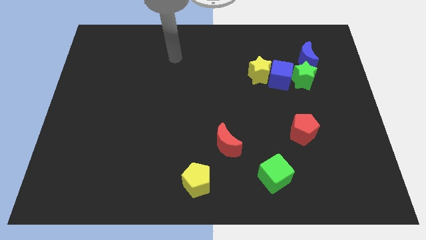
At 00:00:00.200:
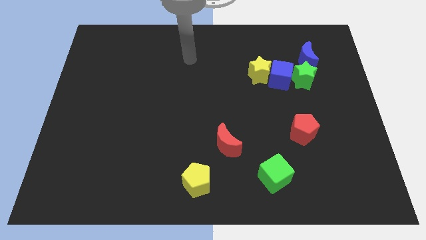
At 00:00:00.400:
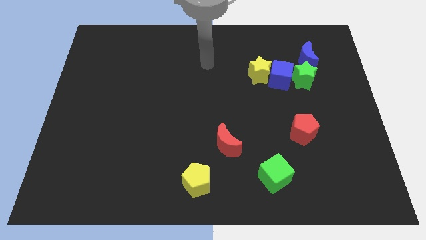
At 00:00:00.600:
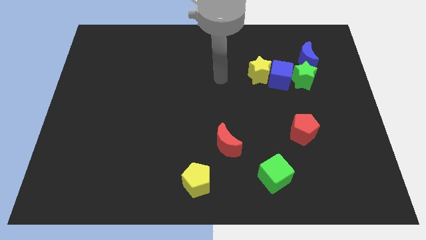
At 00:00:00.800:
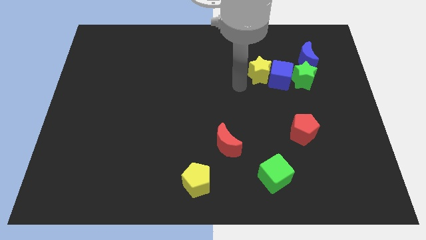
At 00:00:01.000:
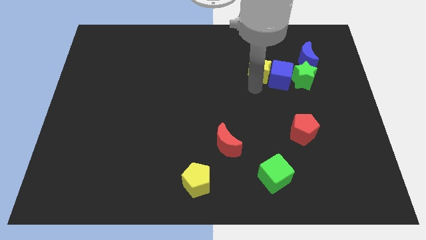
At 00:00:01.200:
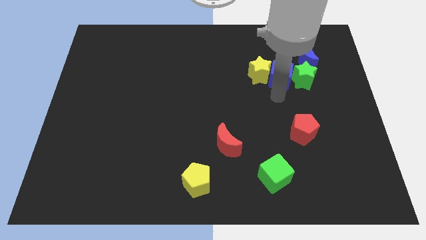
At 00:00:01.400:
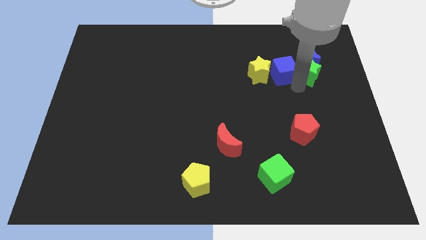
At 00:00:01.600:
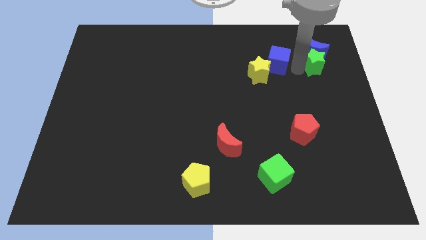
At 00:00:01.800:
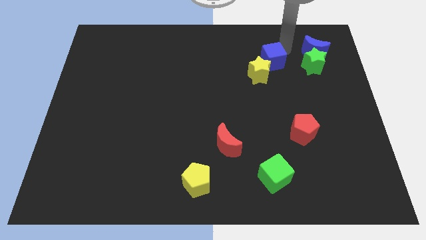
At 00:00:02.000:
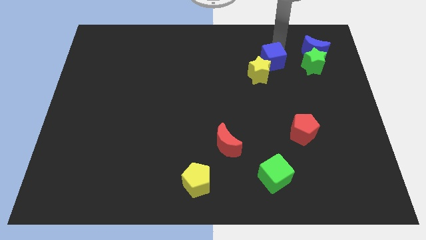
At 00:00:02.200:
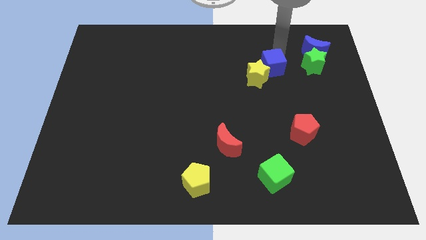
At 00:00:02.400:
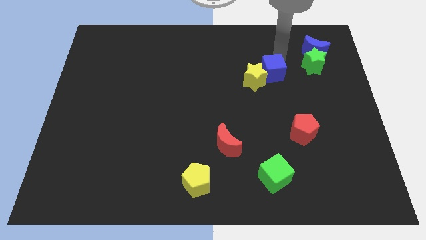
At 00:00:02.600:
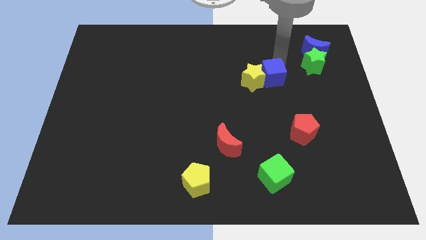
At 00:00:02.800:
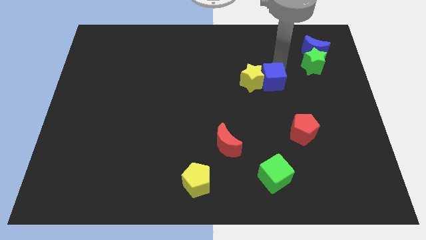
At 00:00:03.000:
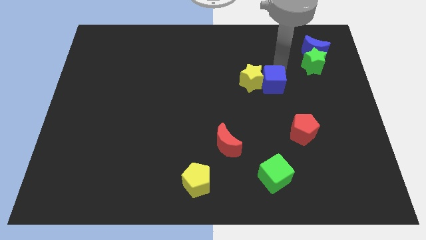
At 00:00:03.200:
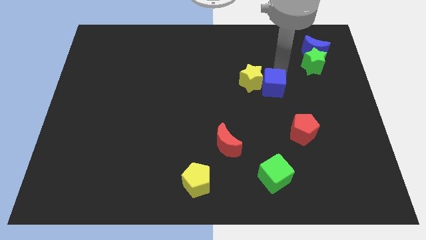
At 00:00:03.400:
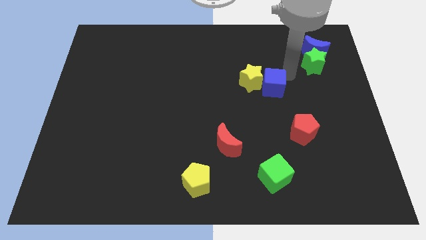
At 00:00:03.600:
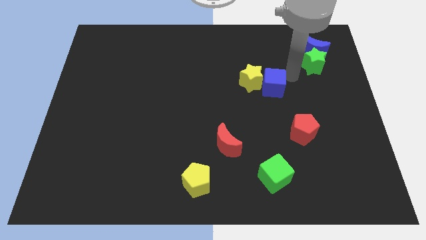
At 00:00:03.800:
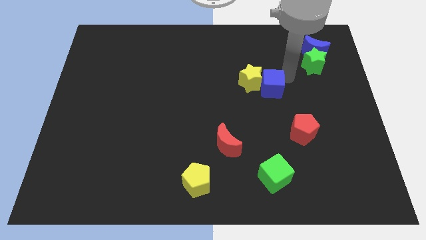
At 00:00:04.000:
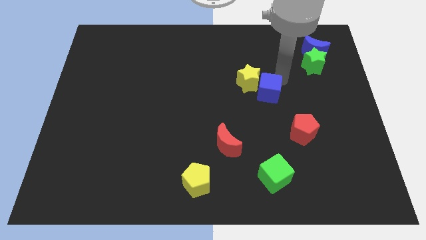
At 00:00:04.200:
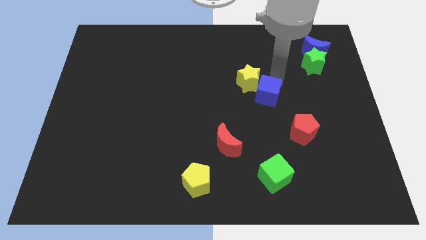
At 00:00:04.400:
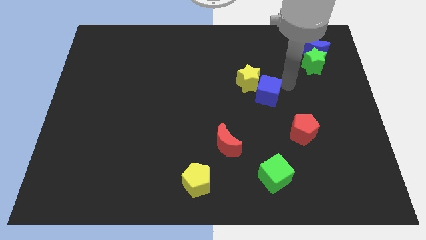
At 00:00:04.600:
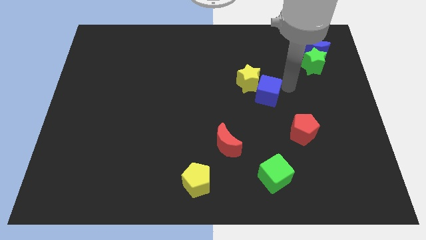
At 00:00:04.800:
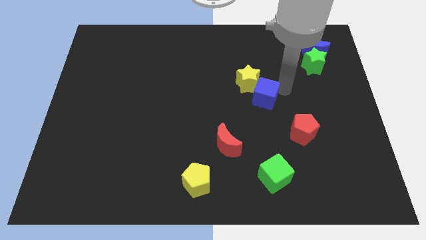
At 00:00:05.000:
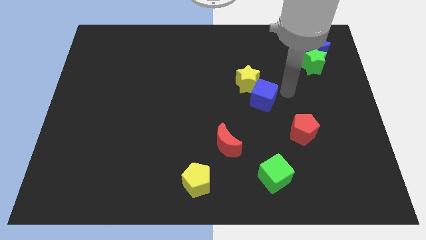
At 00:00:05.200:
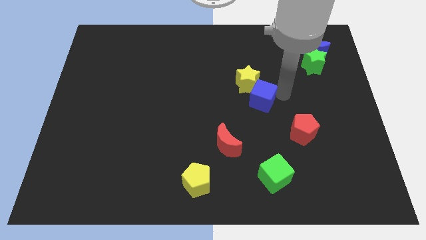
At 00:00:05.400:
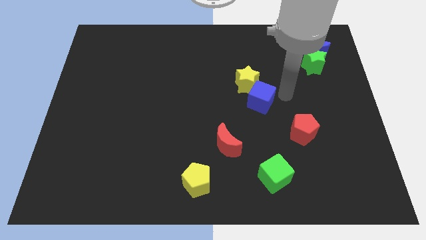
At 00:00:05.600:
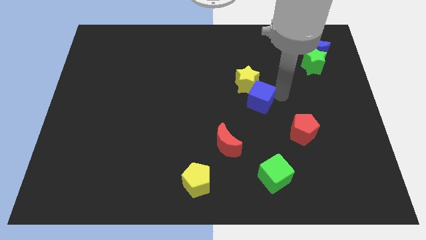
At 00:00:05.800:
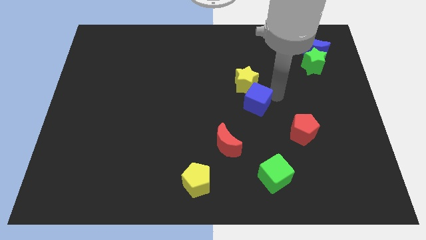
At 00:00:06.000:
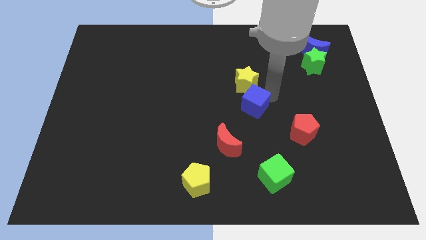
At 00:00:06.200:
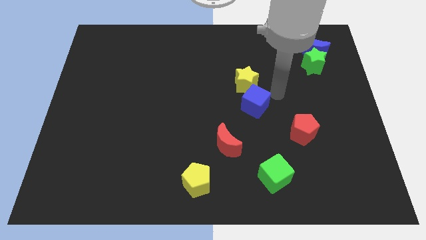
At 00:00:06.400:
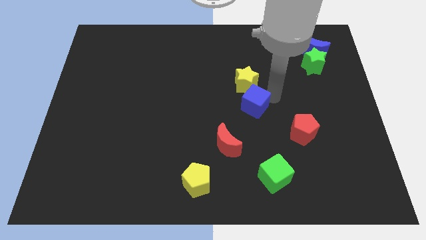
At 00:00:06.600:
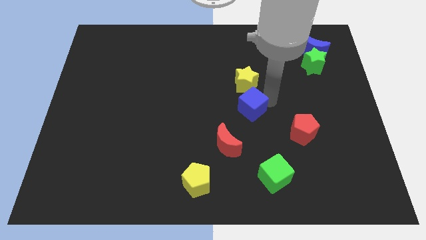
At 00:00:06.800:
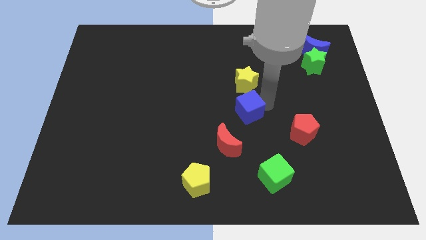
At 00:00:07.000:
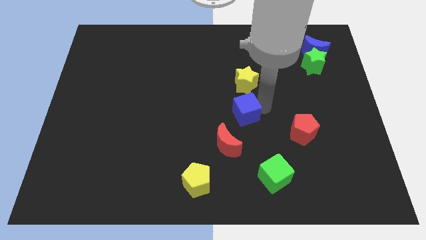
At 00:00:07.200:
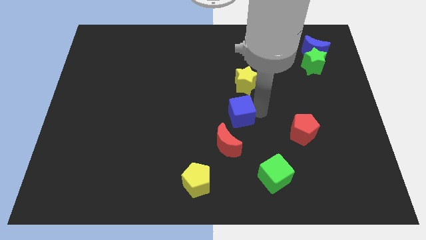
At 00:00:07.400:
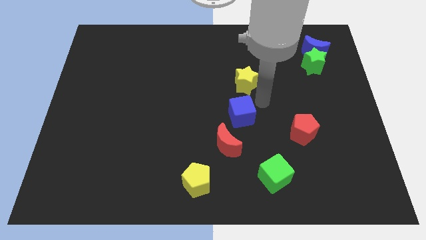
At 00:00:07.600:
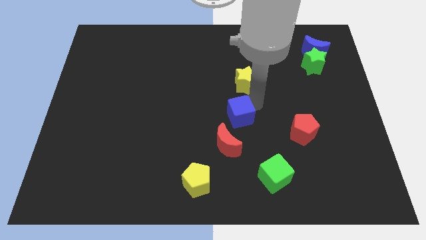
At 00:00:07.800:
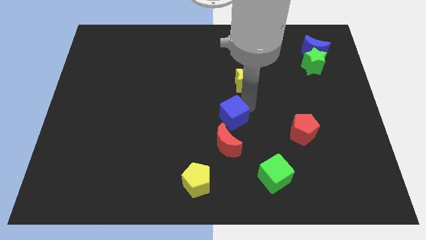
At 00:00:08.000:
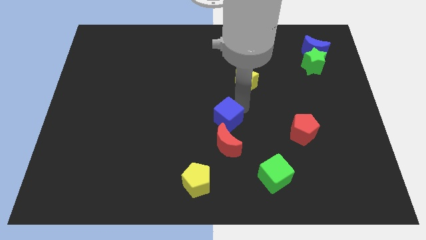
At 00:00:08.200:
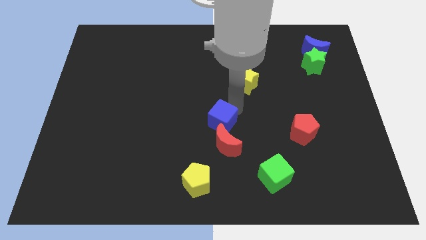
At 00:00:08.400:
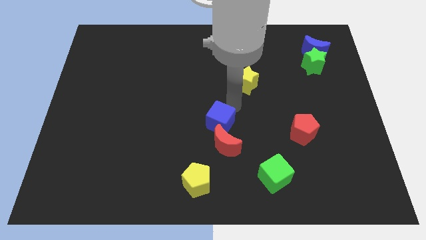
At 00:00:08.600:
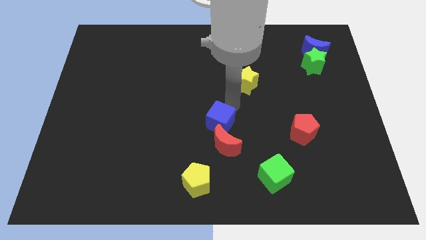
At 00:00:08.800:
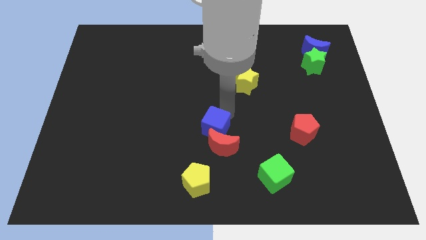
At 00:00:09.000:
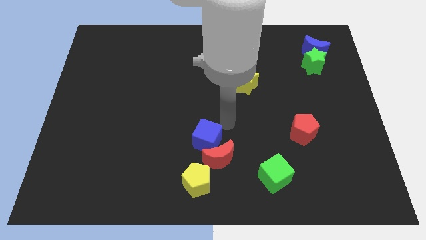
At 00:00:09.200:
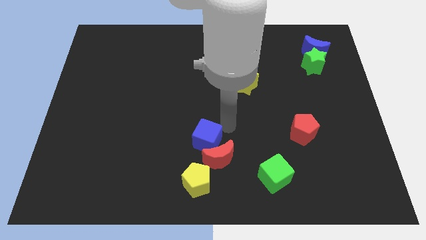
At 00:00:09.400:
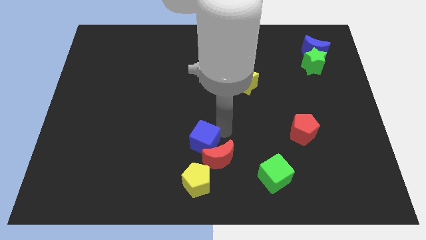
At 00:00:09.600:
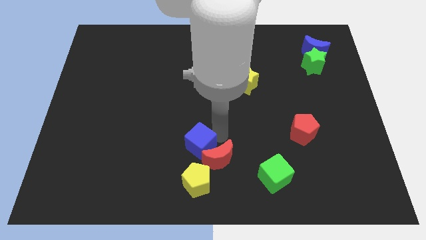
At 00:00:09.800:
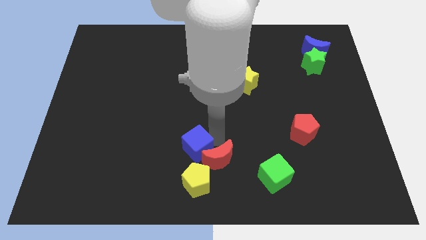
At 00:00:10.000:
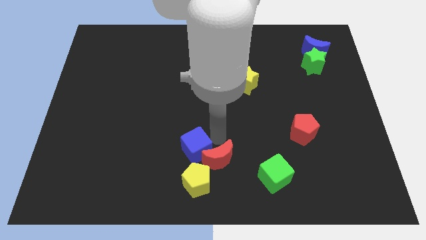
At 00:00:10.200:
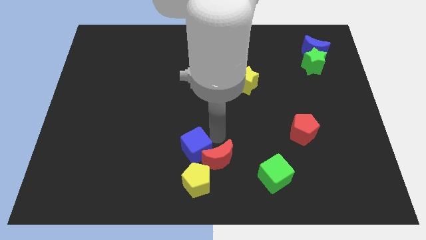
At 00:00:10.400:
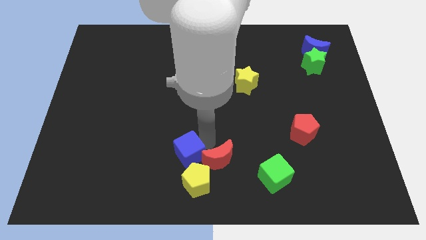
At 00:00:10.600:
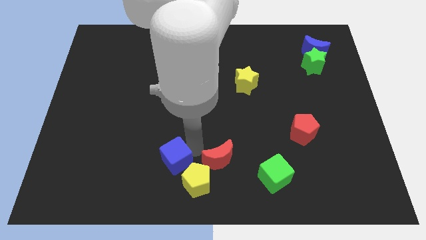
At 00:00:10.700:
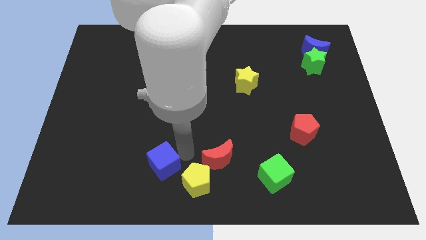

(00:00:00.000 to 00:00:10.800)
push the blue cube just left of the yellow pentagon

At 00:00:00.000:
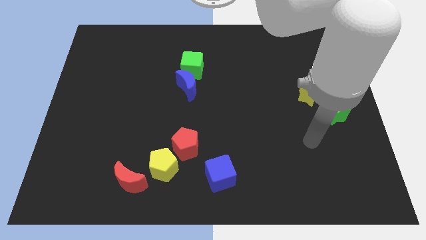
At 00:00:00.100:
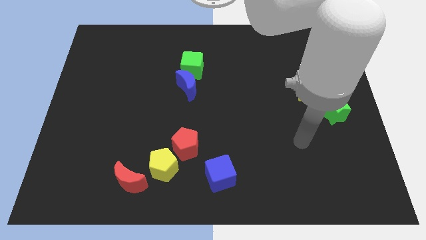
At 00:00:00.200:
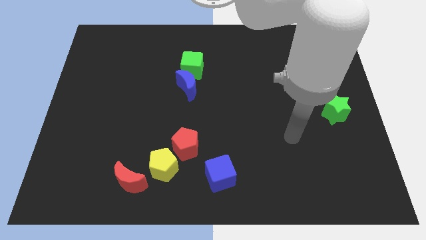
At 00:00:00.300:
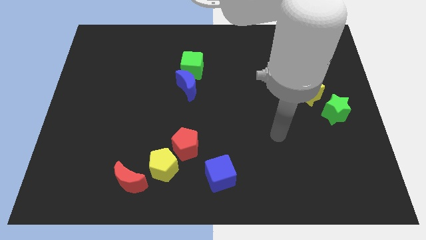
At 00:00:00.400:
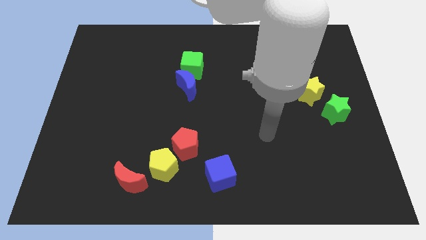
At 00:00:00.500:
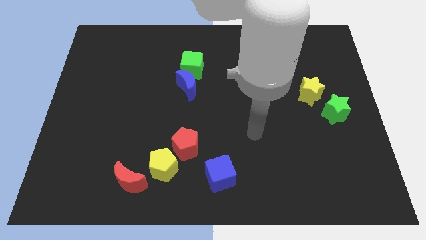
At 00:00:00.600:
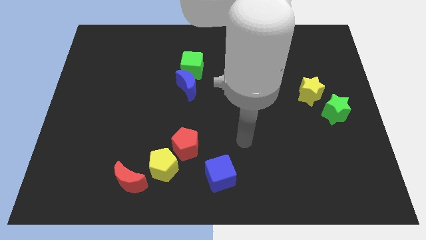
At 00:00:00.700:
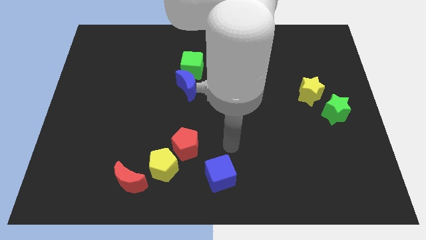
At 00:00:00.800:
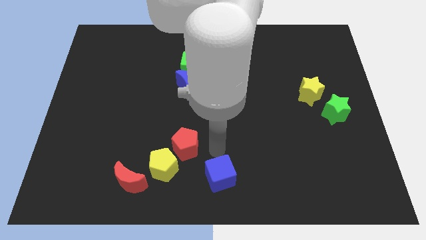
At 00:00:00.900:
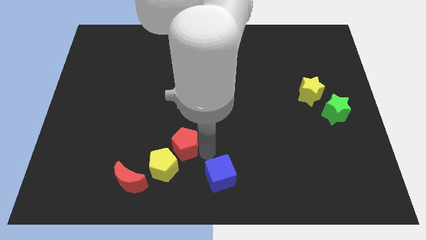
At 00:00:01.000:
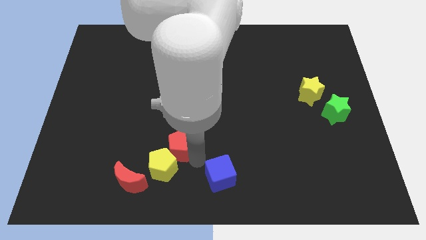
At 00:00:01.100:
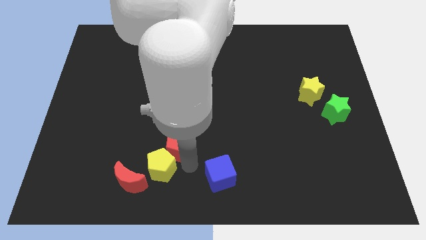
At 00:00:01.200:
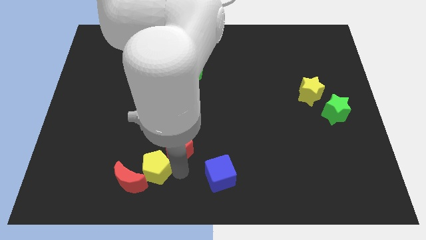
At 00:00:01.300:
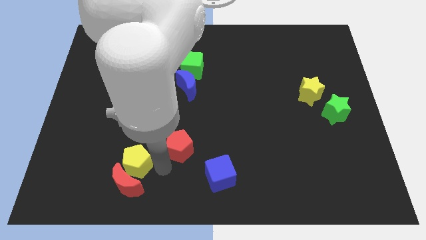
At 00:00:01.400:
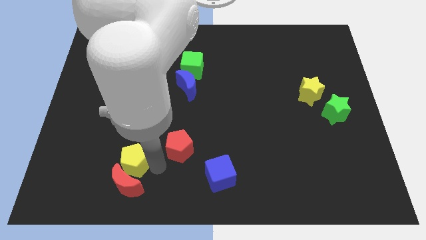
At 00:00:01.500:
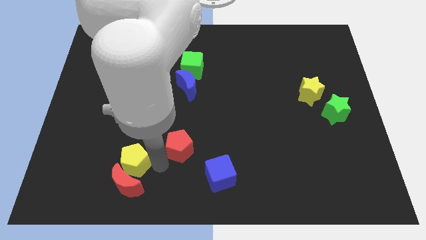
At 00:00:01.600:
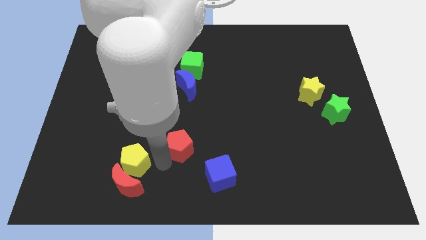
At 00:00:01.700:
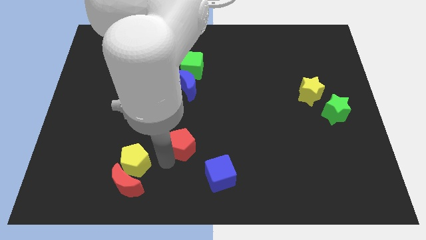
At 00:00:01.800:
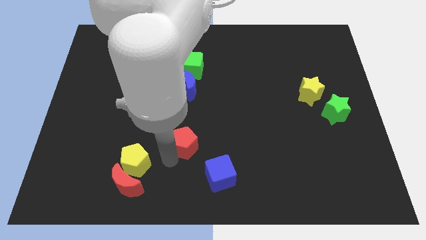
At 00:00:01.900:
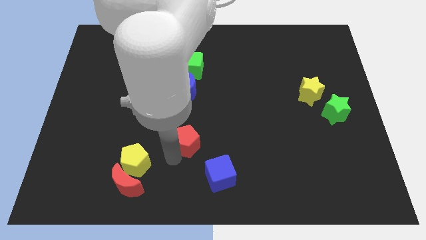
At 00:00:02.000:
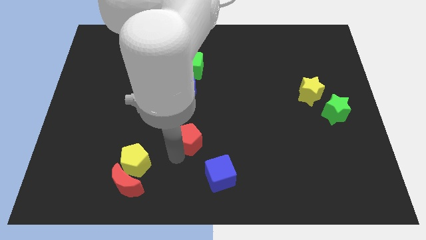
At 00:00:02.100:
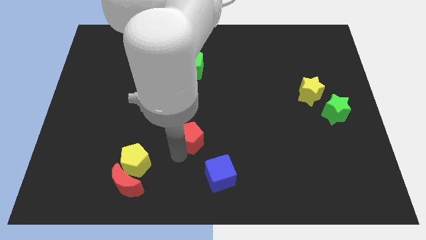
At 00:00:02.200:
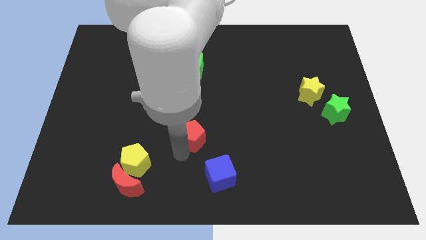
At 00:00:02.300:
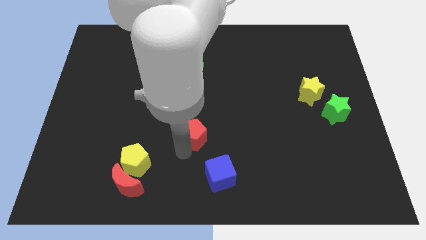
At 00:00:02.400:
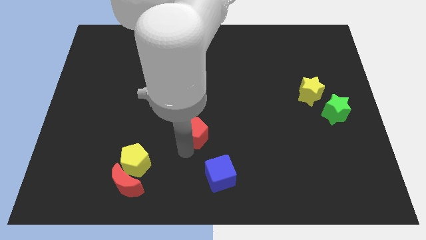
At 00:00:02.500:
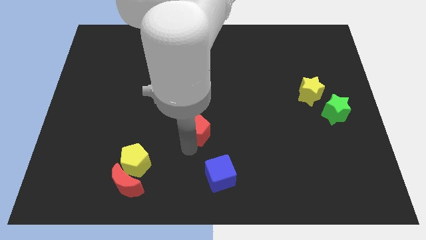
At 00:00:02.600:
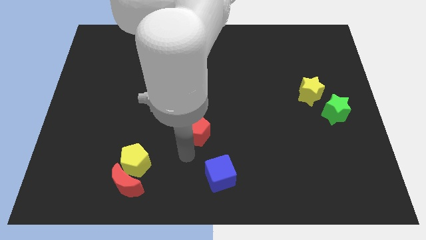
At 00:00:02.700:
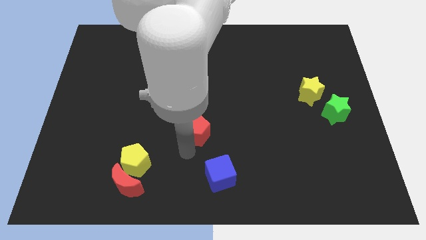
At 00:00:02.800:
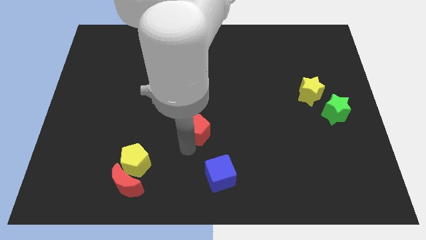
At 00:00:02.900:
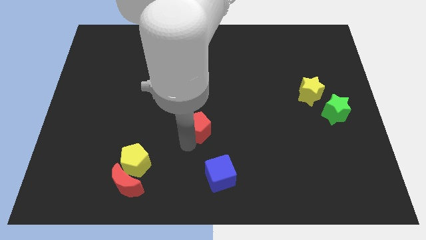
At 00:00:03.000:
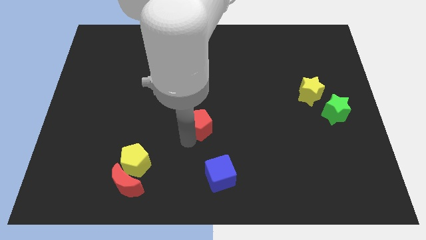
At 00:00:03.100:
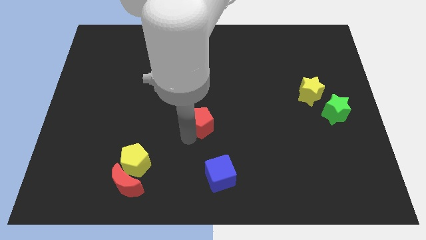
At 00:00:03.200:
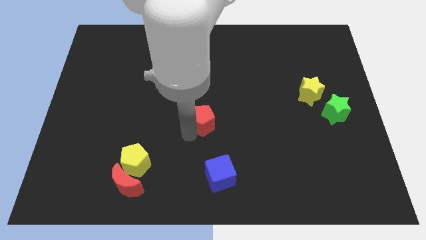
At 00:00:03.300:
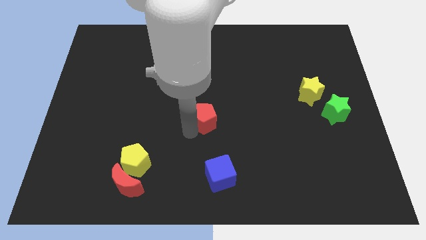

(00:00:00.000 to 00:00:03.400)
slide the red pentagon diagonally down and to the right of the blue moon
